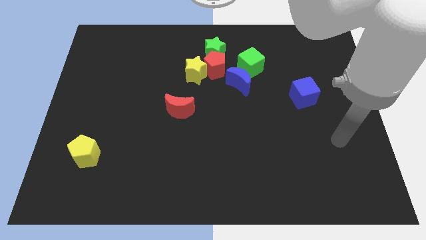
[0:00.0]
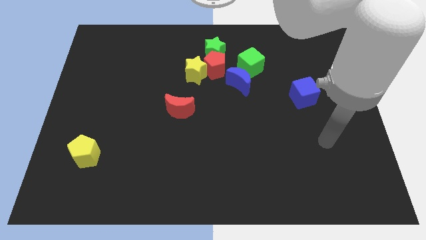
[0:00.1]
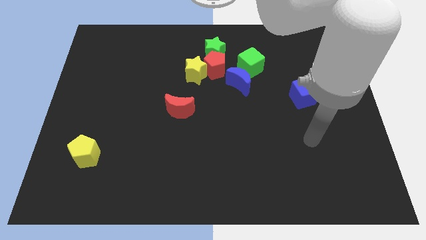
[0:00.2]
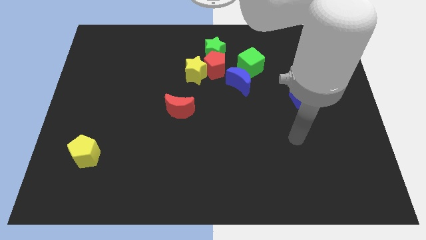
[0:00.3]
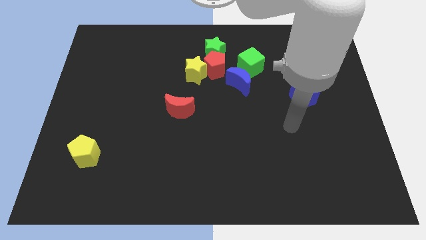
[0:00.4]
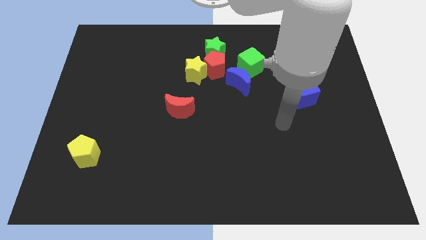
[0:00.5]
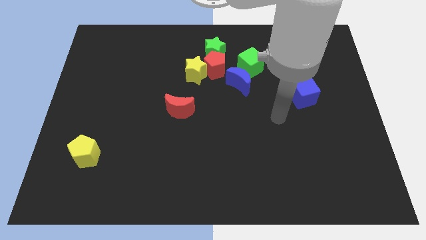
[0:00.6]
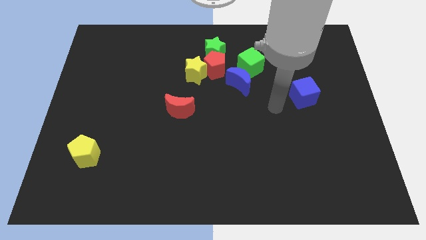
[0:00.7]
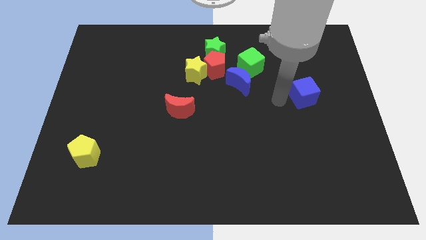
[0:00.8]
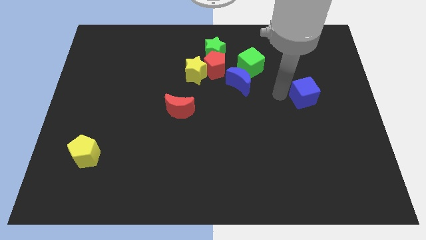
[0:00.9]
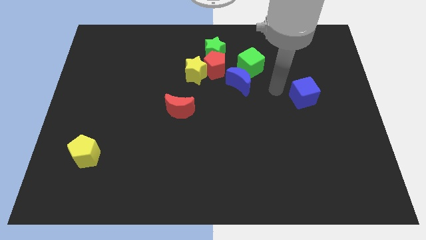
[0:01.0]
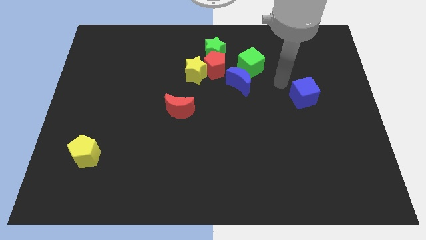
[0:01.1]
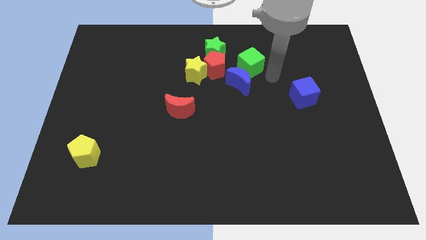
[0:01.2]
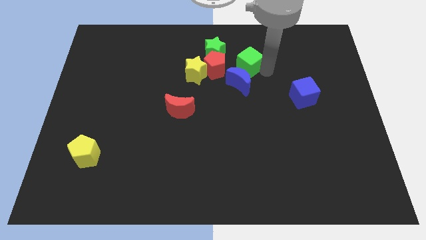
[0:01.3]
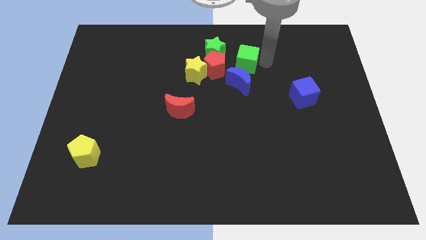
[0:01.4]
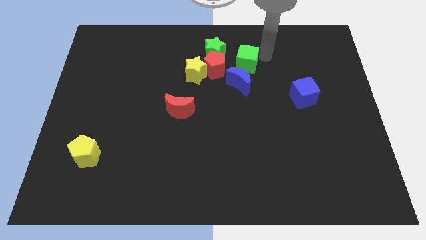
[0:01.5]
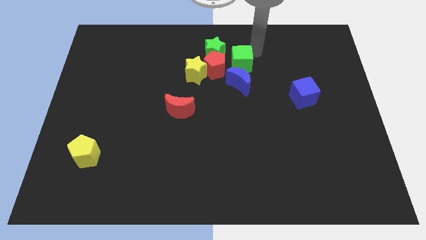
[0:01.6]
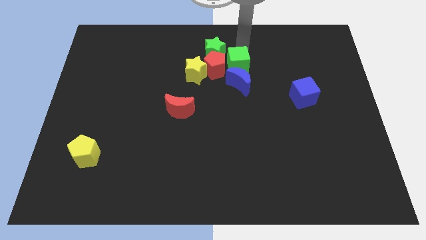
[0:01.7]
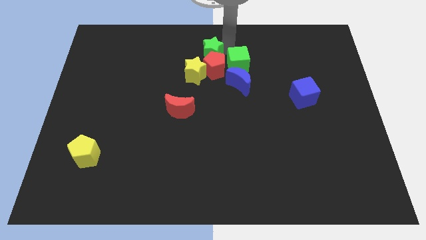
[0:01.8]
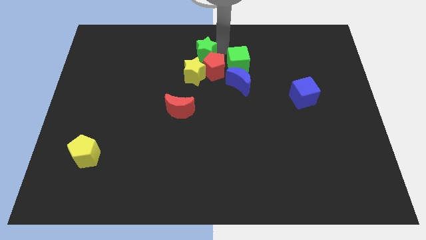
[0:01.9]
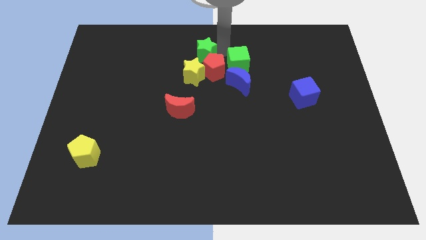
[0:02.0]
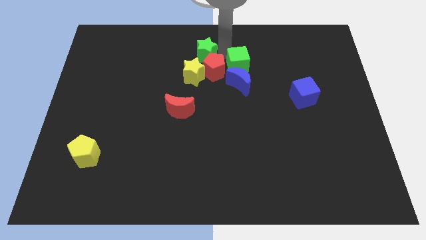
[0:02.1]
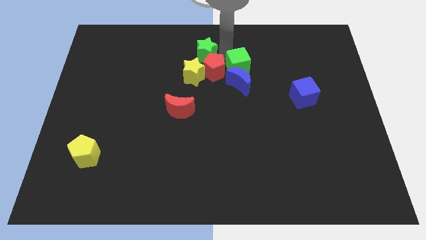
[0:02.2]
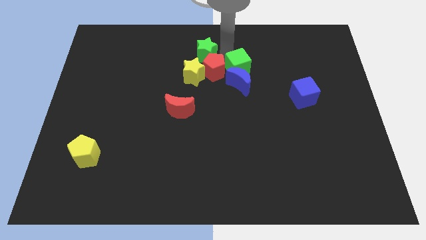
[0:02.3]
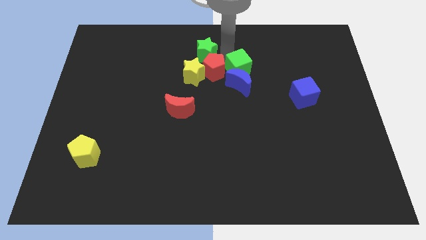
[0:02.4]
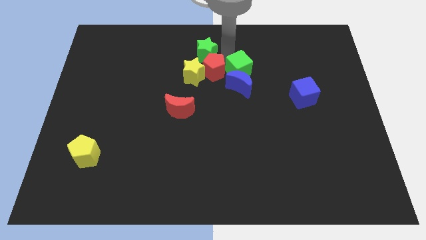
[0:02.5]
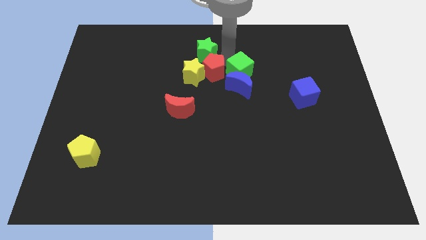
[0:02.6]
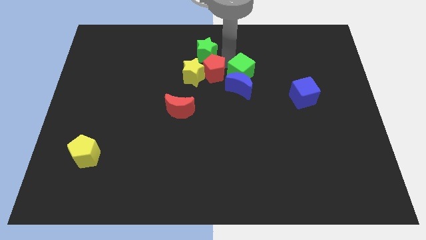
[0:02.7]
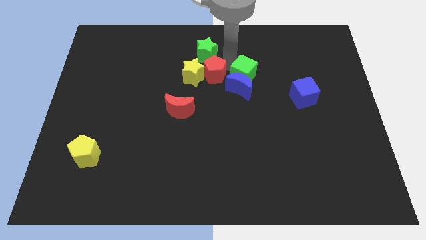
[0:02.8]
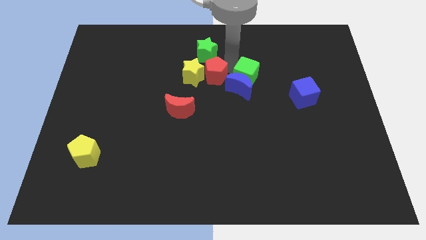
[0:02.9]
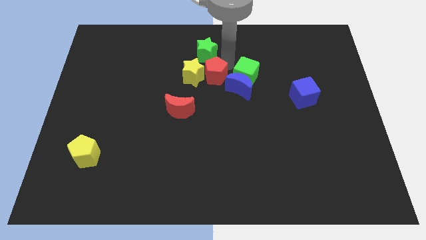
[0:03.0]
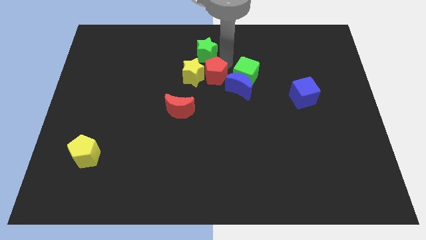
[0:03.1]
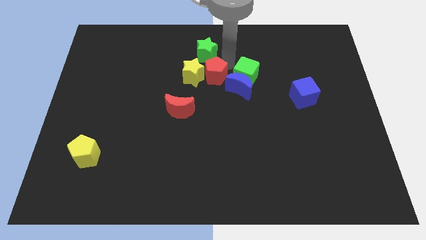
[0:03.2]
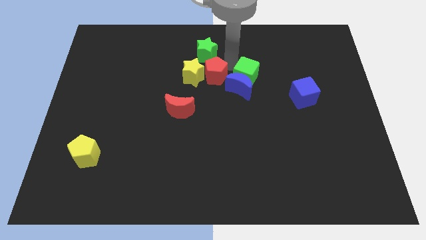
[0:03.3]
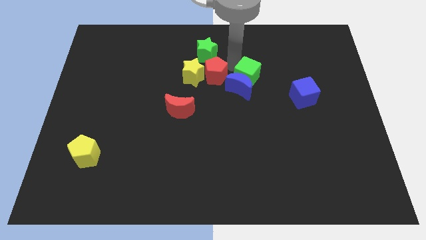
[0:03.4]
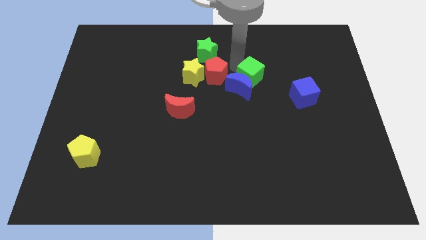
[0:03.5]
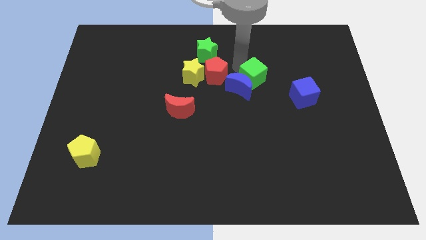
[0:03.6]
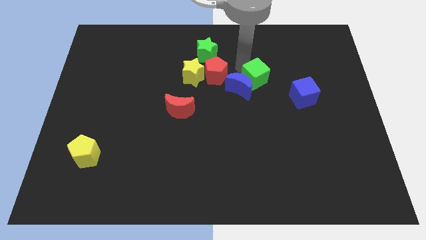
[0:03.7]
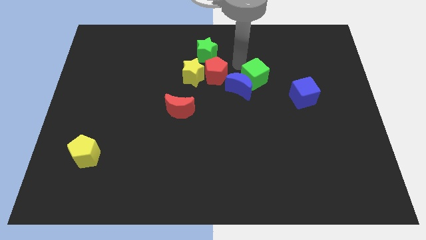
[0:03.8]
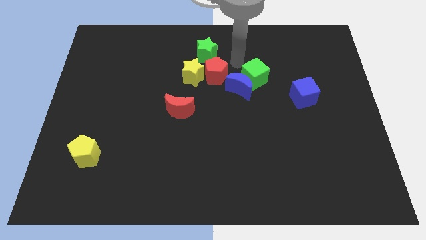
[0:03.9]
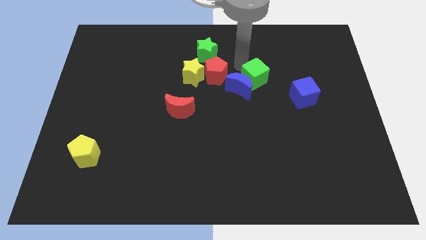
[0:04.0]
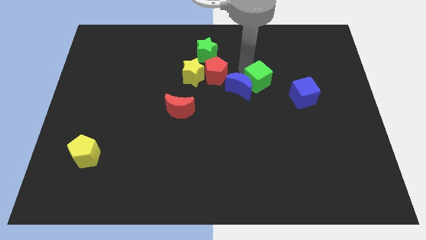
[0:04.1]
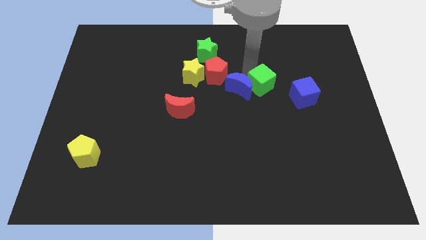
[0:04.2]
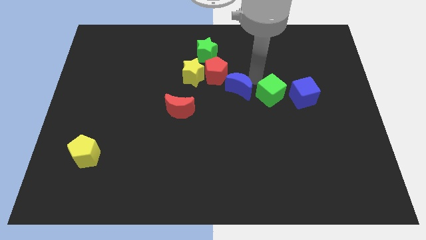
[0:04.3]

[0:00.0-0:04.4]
slide the green cube somewhat down and right

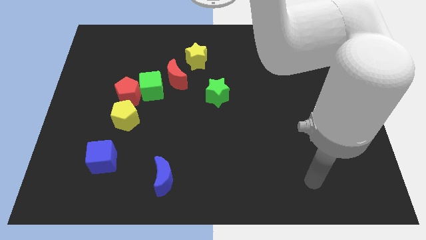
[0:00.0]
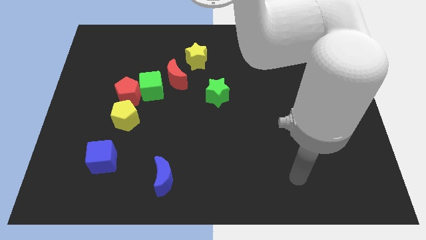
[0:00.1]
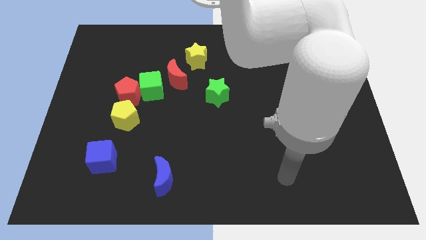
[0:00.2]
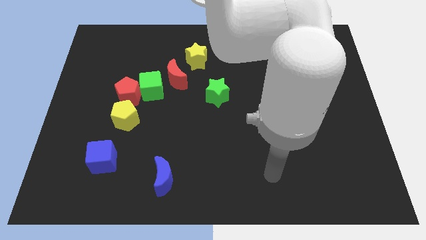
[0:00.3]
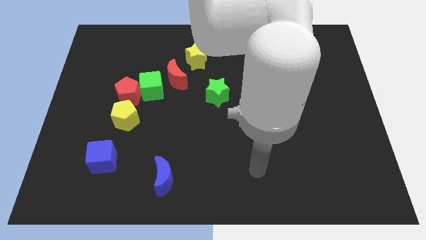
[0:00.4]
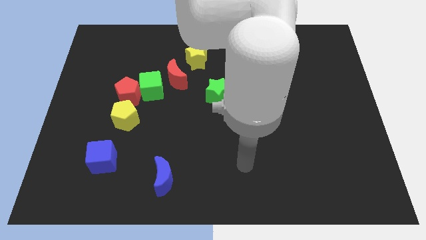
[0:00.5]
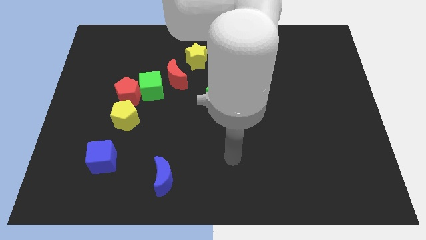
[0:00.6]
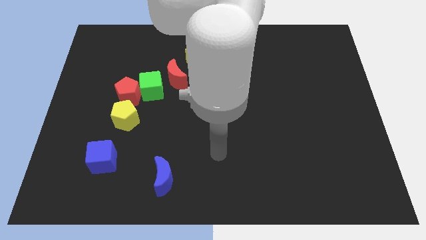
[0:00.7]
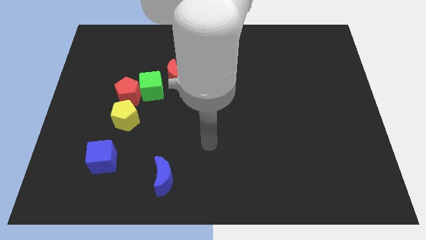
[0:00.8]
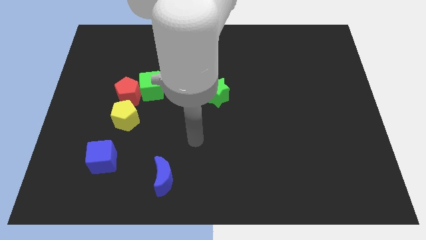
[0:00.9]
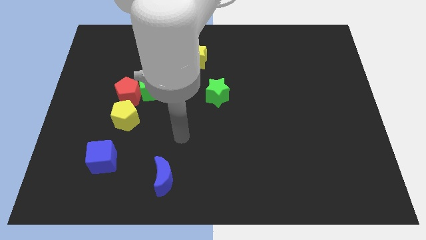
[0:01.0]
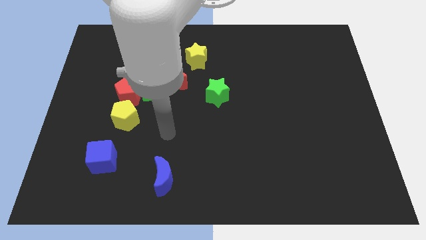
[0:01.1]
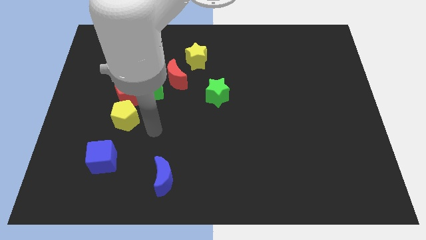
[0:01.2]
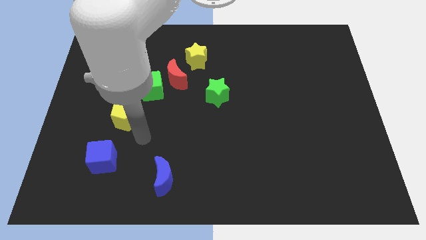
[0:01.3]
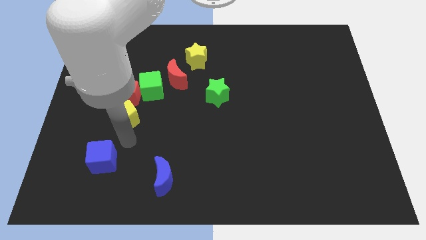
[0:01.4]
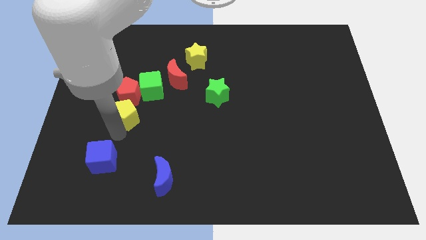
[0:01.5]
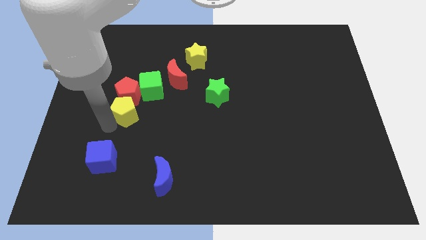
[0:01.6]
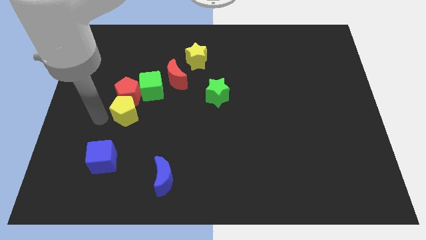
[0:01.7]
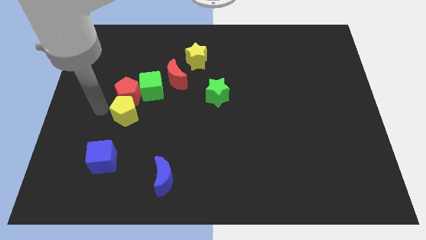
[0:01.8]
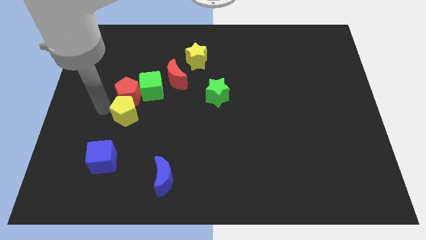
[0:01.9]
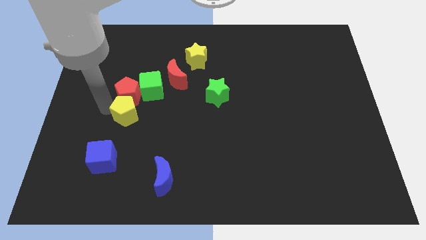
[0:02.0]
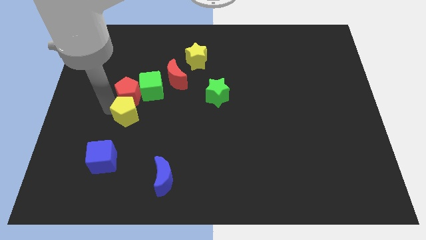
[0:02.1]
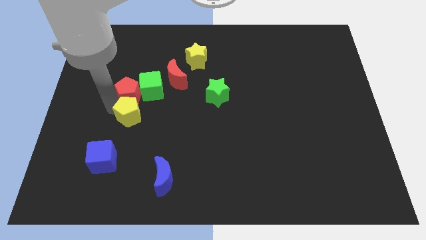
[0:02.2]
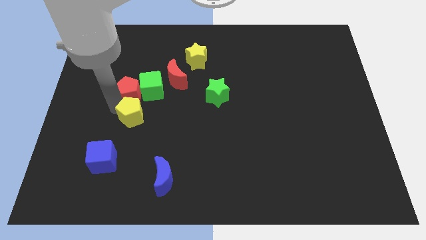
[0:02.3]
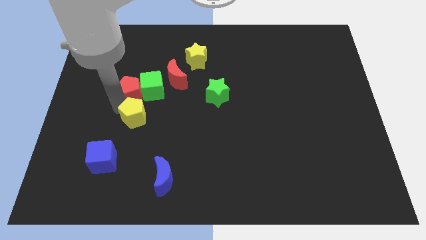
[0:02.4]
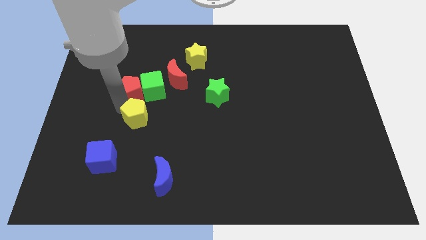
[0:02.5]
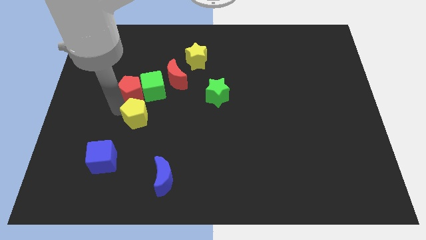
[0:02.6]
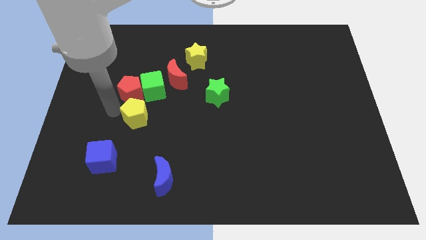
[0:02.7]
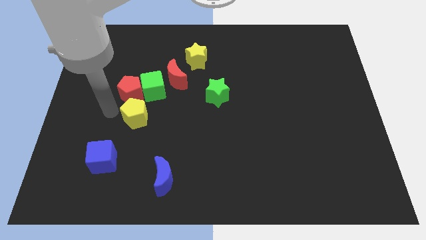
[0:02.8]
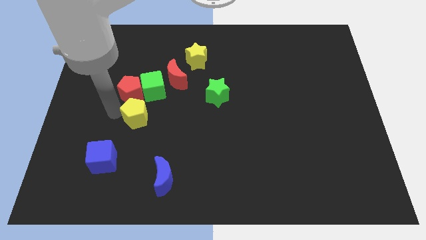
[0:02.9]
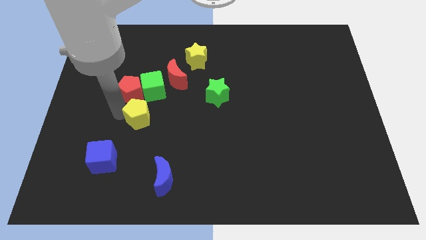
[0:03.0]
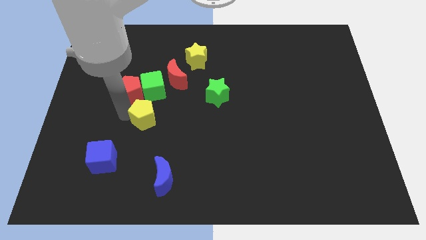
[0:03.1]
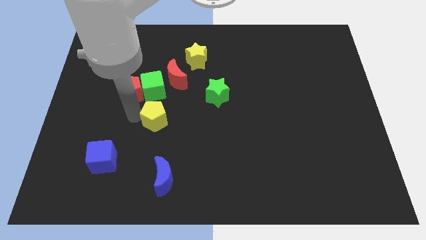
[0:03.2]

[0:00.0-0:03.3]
slide the yellow pentagon a bit to the right

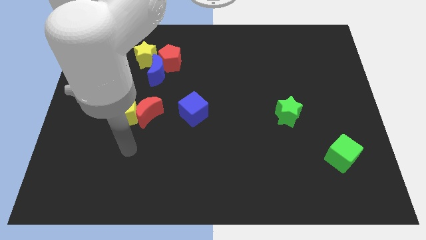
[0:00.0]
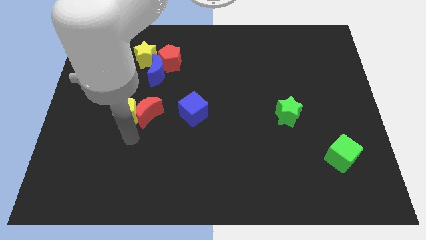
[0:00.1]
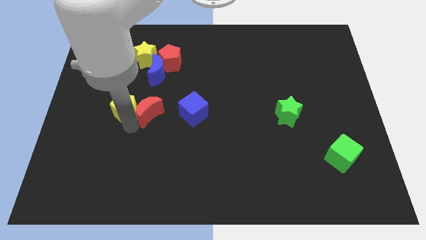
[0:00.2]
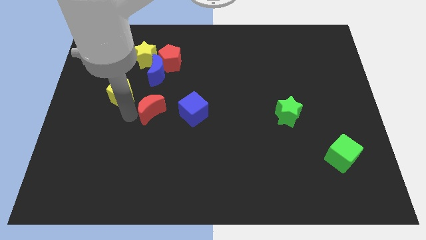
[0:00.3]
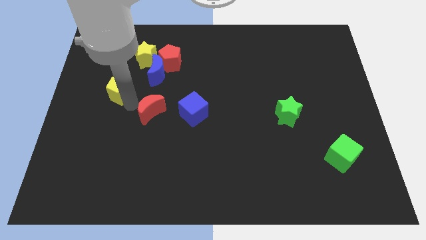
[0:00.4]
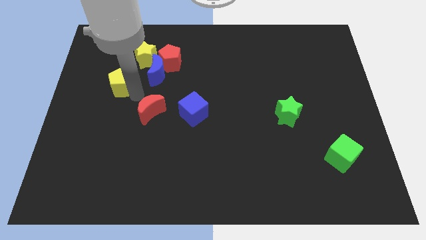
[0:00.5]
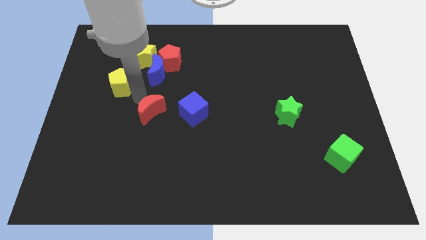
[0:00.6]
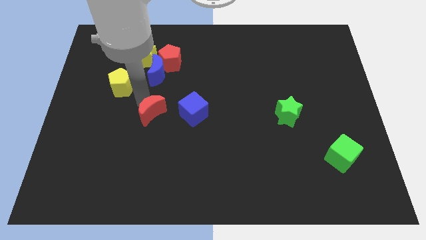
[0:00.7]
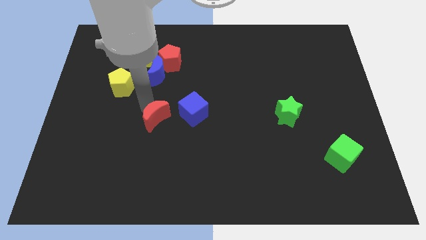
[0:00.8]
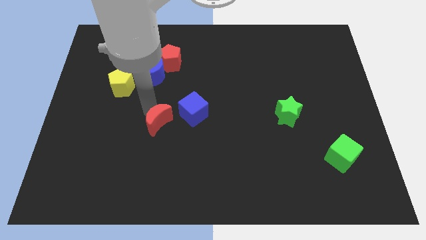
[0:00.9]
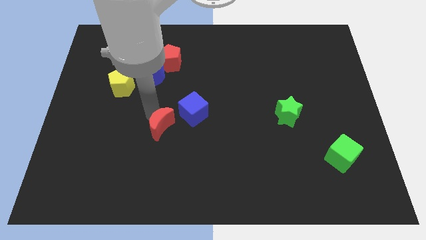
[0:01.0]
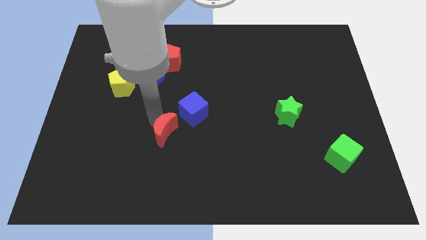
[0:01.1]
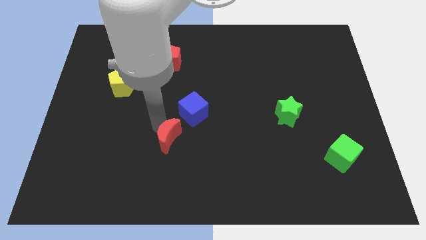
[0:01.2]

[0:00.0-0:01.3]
move the red moon a little bit downwards and then to the right
